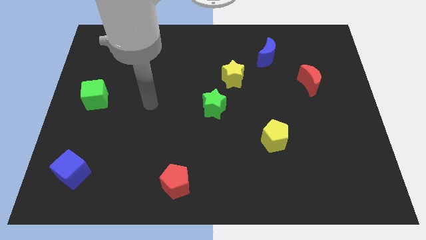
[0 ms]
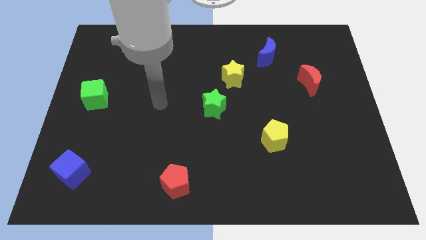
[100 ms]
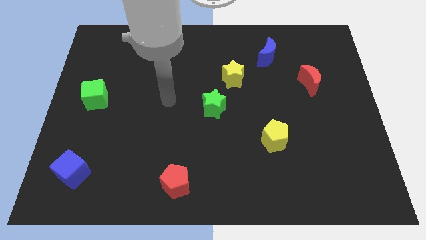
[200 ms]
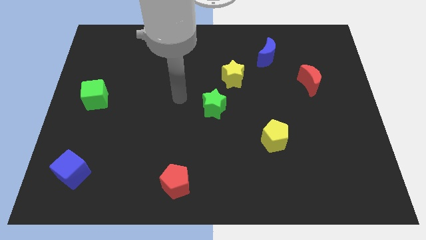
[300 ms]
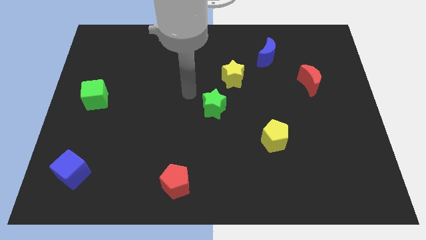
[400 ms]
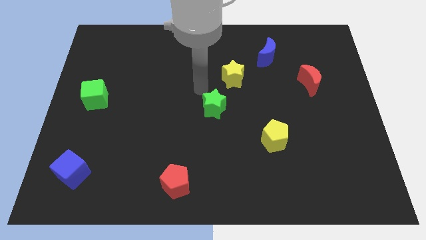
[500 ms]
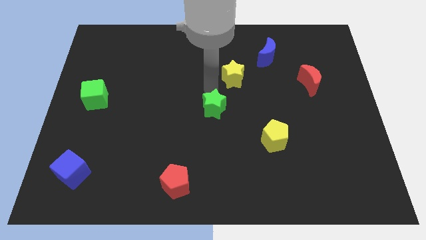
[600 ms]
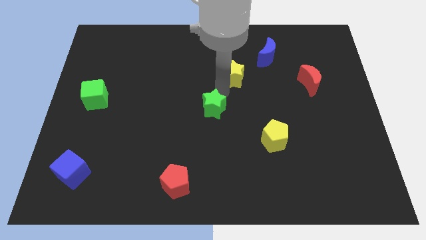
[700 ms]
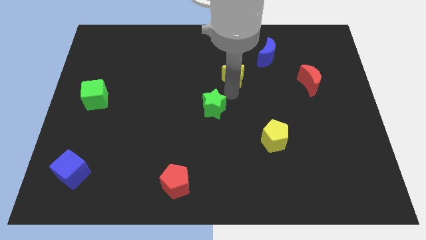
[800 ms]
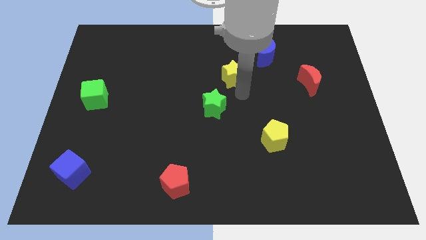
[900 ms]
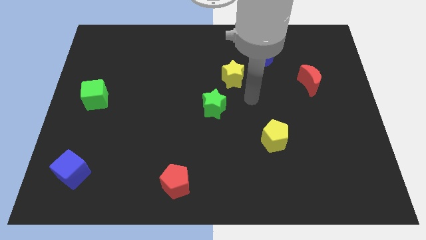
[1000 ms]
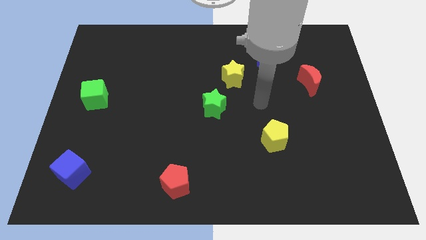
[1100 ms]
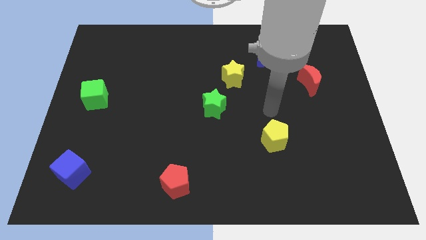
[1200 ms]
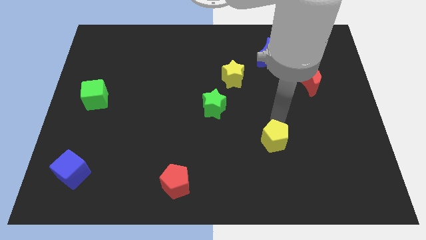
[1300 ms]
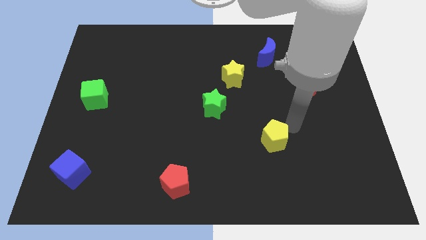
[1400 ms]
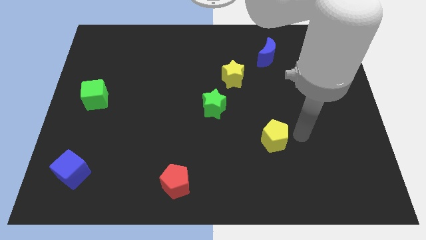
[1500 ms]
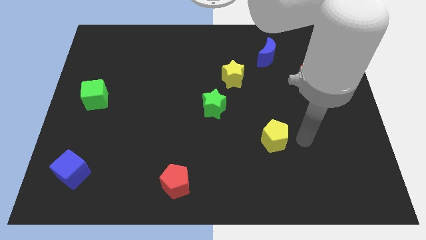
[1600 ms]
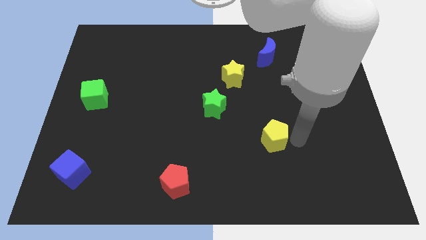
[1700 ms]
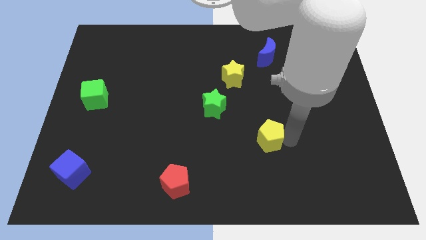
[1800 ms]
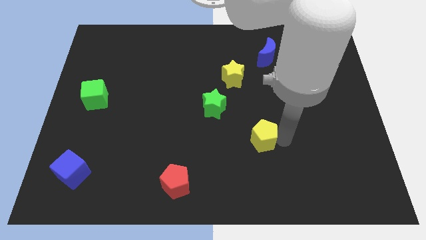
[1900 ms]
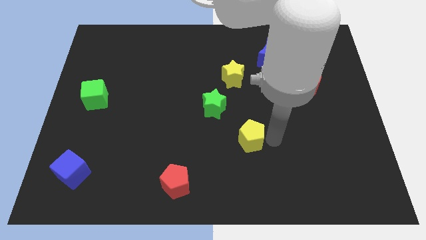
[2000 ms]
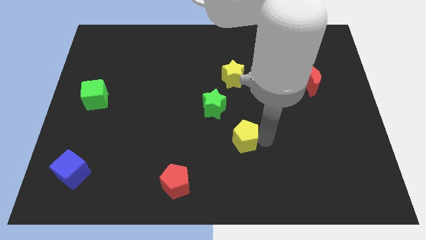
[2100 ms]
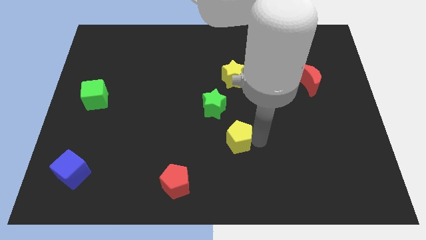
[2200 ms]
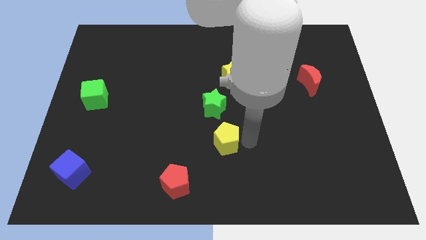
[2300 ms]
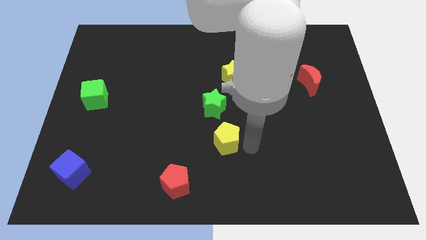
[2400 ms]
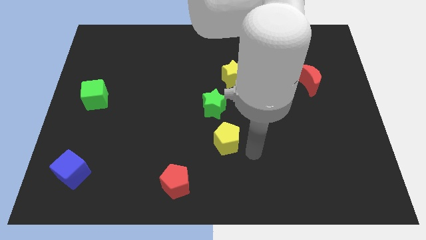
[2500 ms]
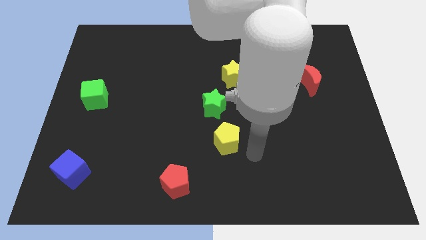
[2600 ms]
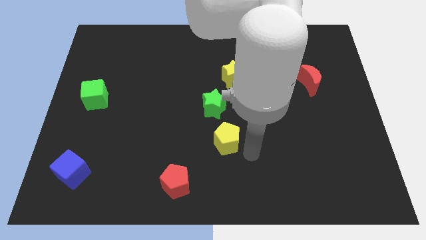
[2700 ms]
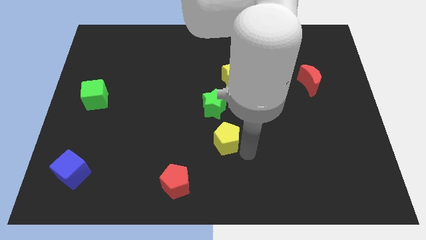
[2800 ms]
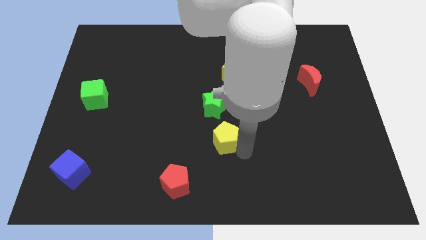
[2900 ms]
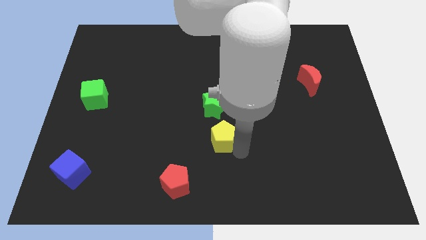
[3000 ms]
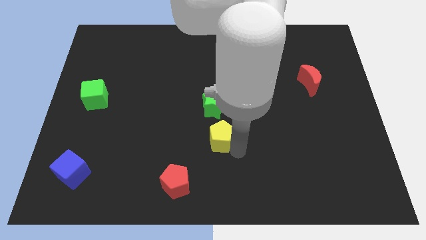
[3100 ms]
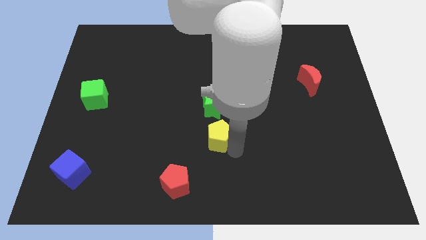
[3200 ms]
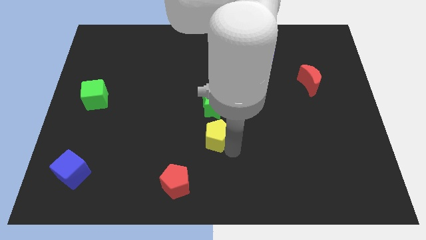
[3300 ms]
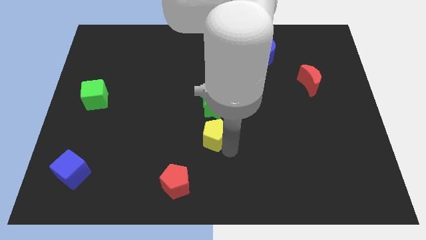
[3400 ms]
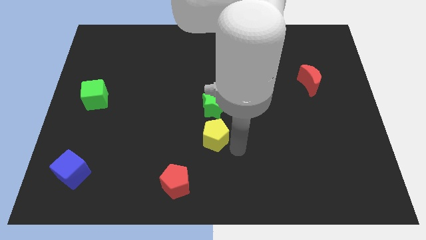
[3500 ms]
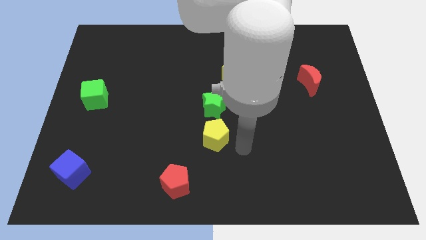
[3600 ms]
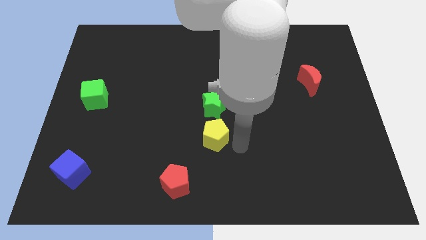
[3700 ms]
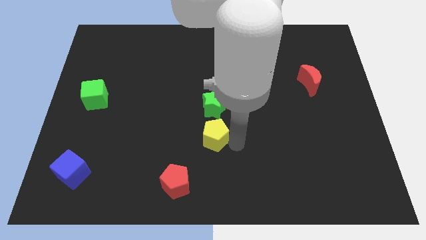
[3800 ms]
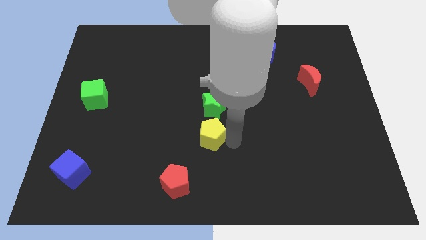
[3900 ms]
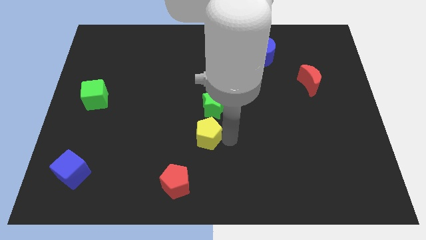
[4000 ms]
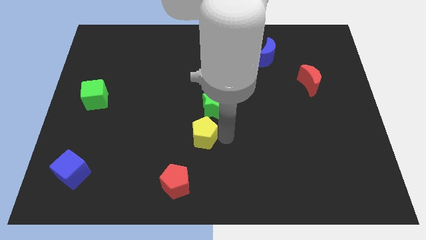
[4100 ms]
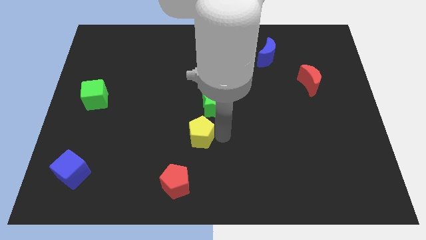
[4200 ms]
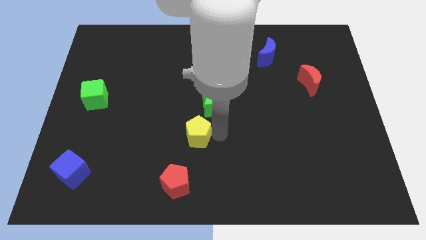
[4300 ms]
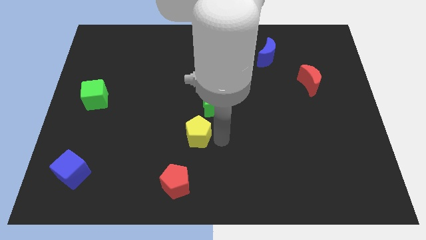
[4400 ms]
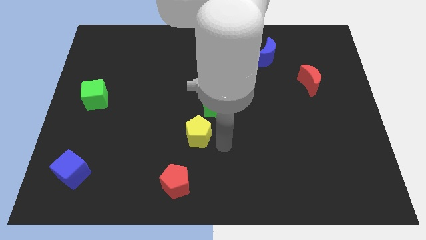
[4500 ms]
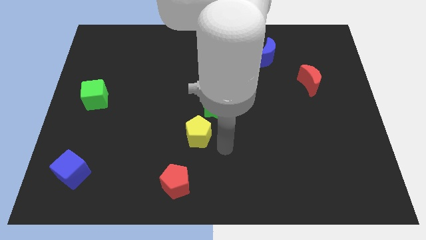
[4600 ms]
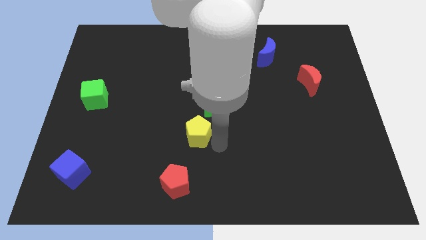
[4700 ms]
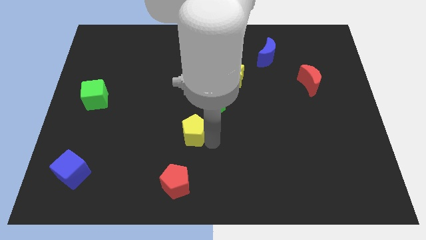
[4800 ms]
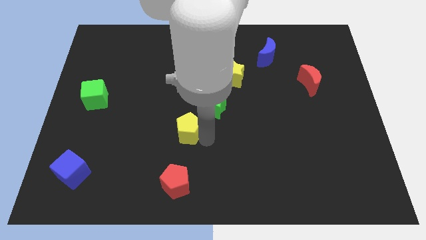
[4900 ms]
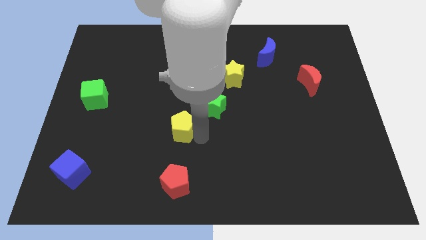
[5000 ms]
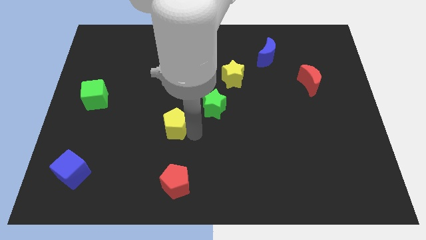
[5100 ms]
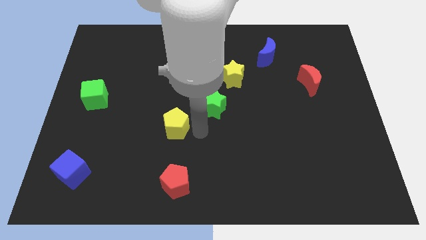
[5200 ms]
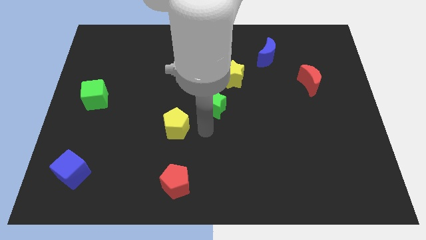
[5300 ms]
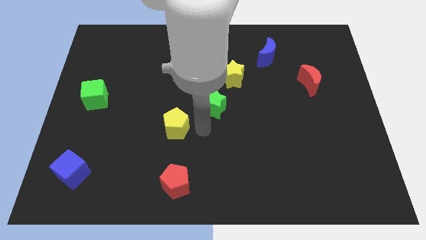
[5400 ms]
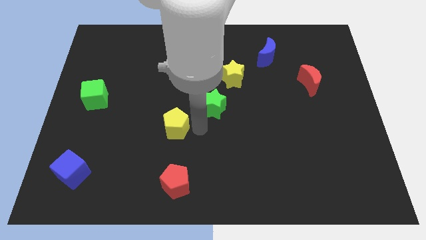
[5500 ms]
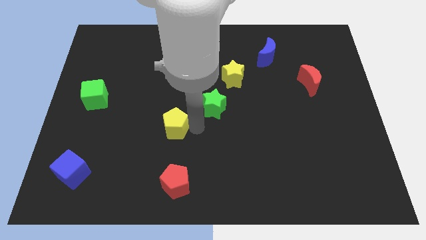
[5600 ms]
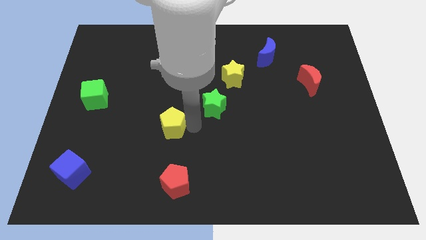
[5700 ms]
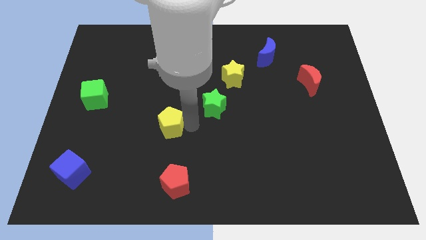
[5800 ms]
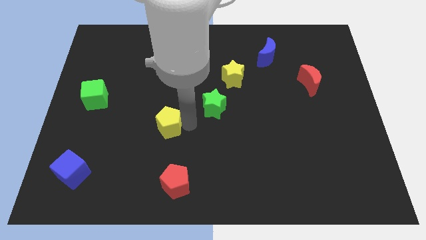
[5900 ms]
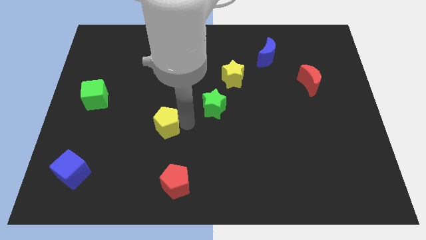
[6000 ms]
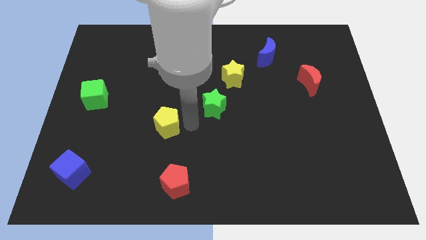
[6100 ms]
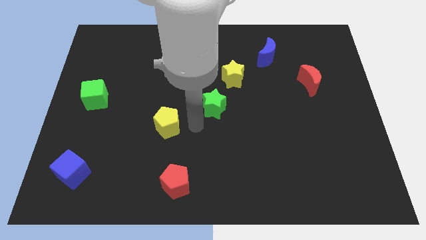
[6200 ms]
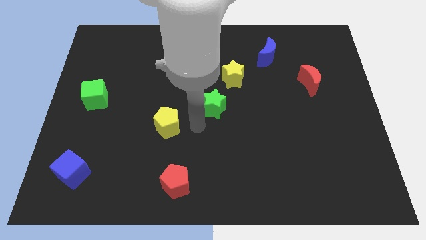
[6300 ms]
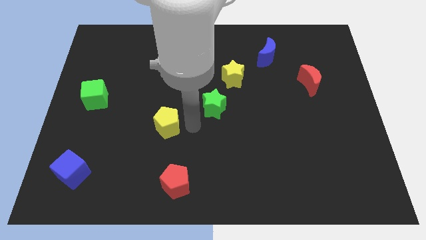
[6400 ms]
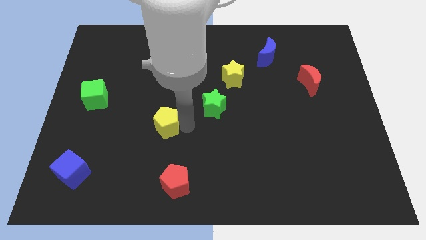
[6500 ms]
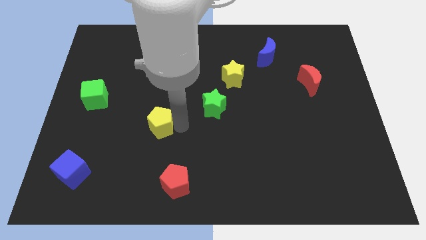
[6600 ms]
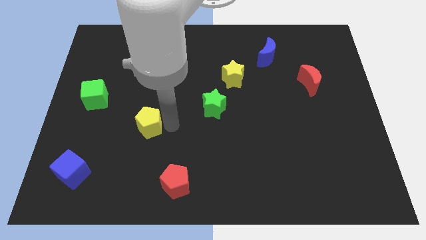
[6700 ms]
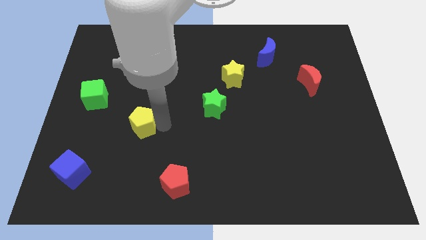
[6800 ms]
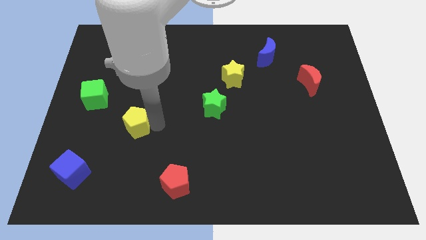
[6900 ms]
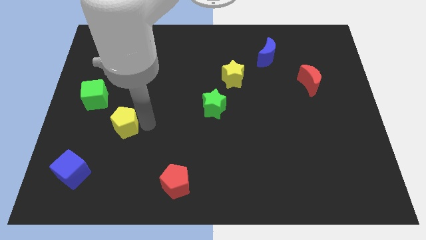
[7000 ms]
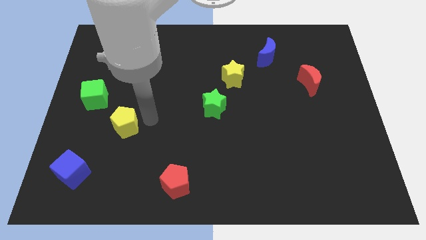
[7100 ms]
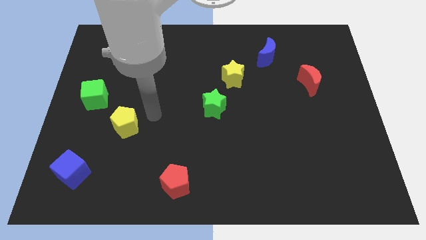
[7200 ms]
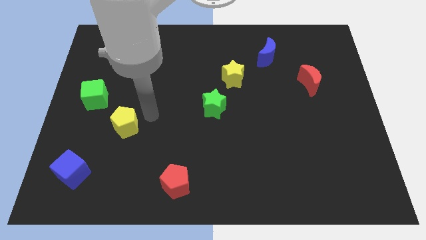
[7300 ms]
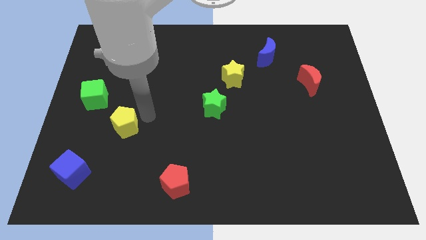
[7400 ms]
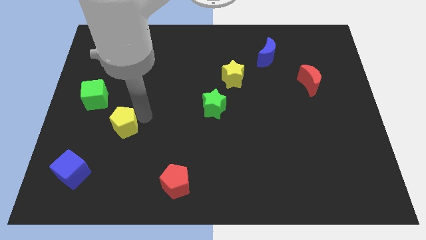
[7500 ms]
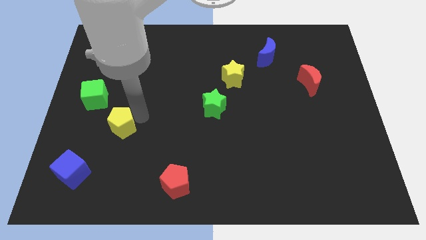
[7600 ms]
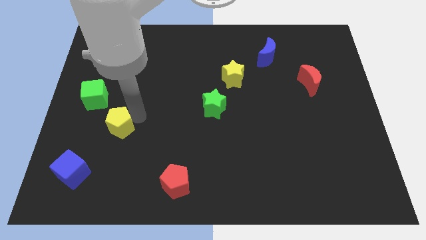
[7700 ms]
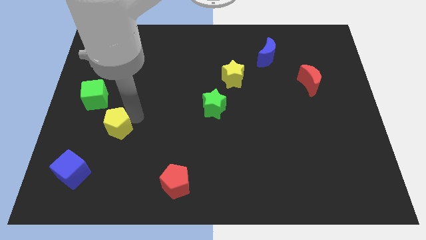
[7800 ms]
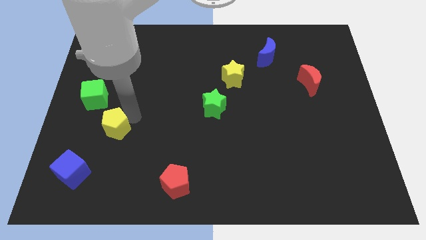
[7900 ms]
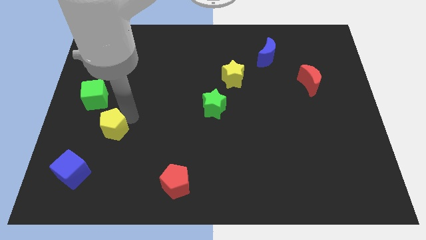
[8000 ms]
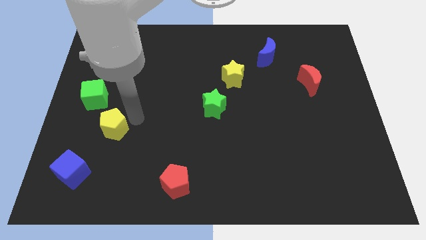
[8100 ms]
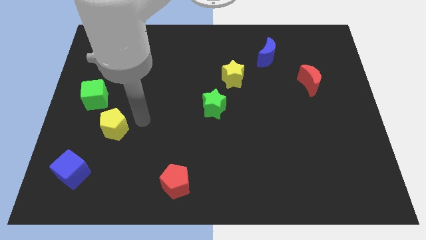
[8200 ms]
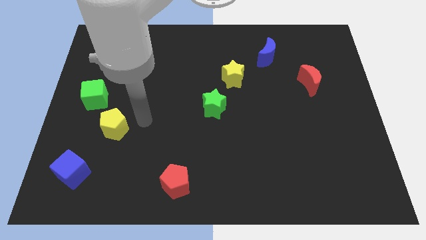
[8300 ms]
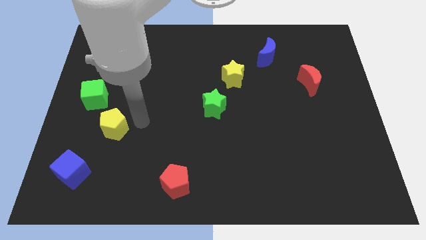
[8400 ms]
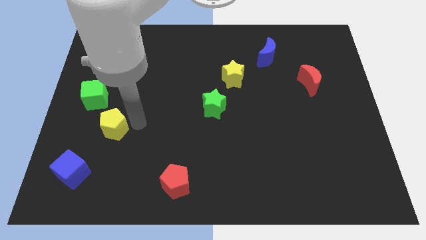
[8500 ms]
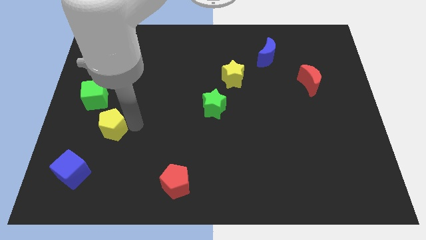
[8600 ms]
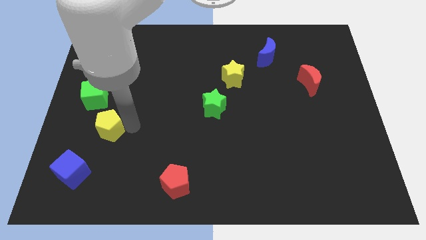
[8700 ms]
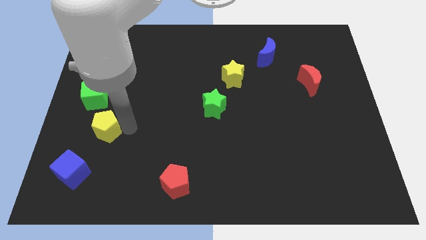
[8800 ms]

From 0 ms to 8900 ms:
push the yellow pentagon below the green cube
